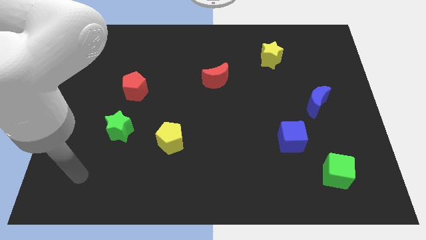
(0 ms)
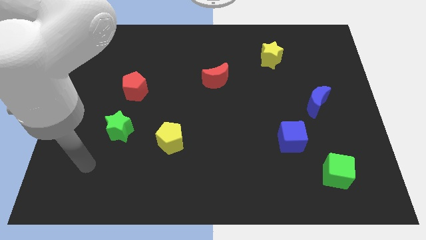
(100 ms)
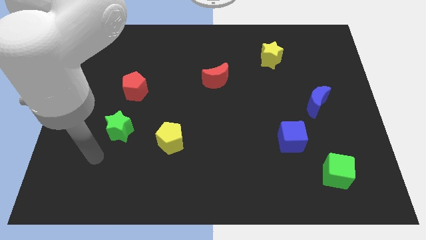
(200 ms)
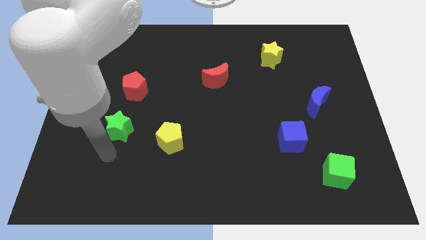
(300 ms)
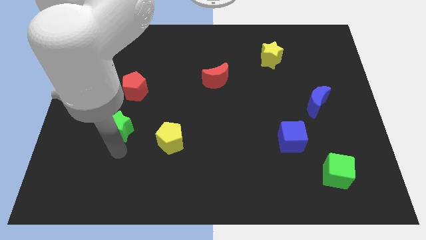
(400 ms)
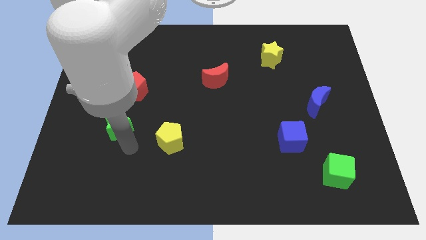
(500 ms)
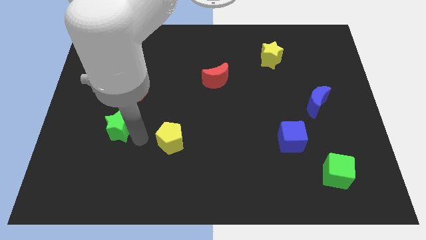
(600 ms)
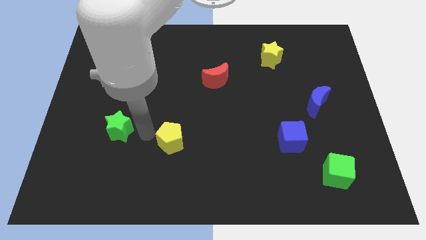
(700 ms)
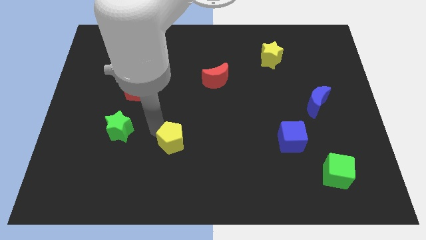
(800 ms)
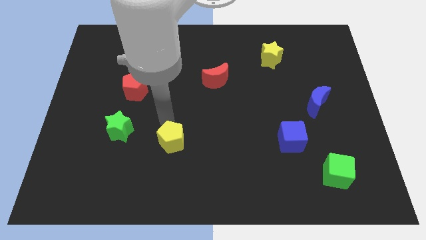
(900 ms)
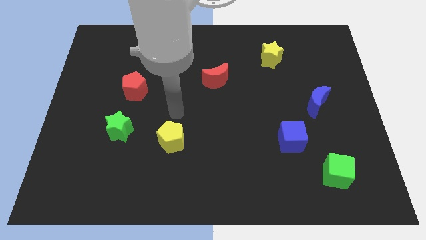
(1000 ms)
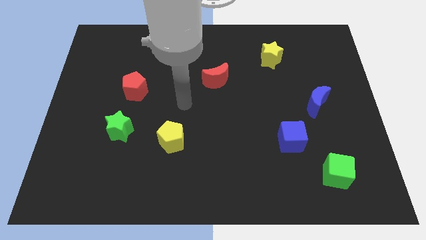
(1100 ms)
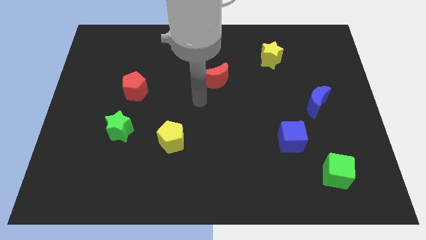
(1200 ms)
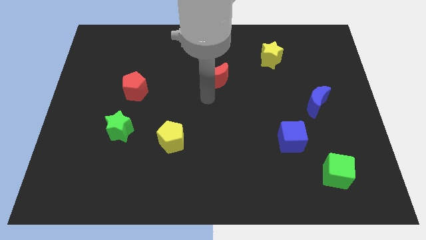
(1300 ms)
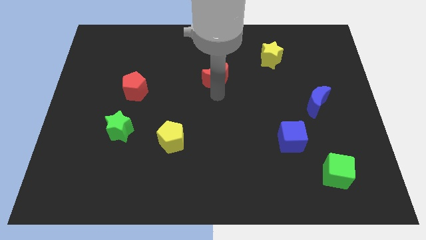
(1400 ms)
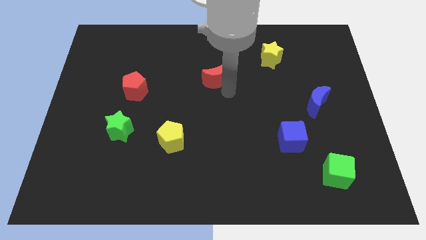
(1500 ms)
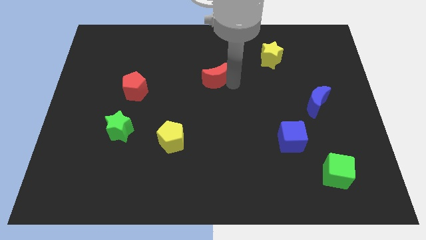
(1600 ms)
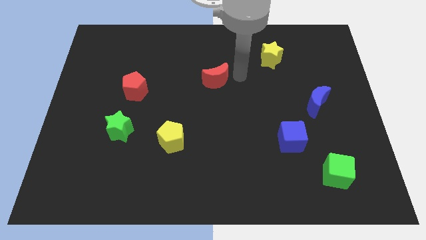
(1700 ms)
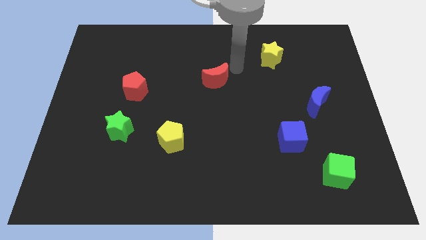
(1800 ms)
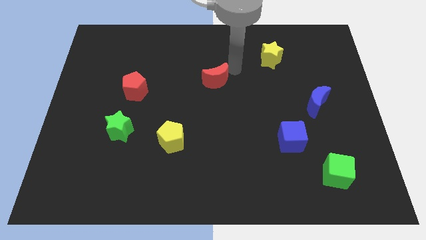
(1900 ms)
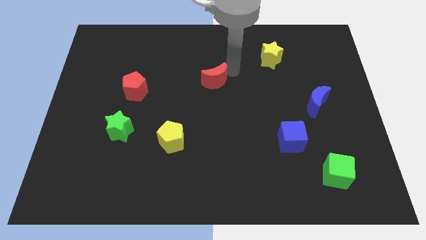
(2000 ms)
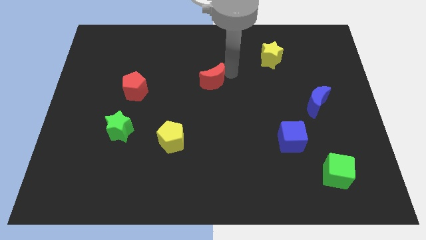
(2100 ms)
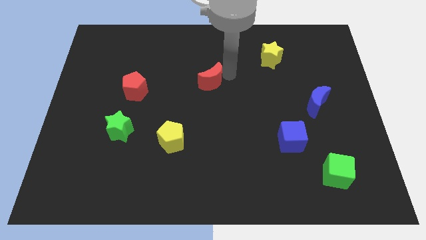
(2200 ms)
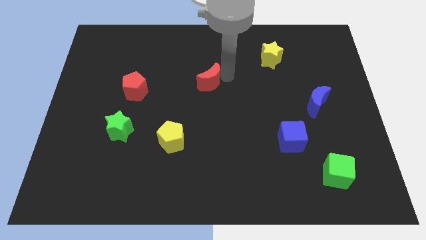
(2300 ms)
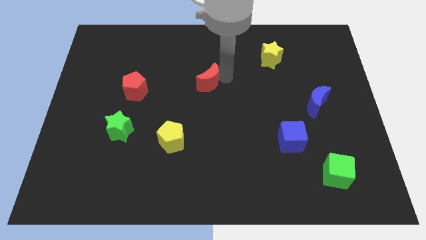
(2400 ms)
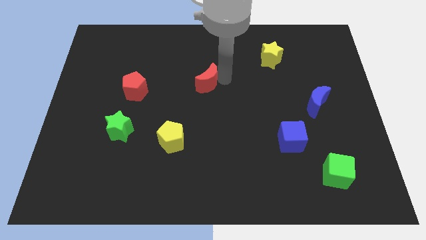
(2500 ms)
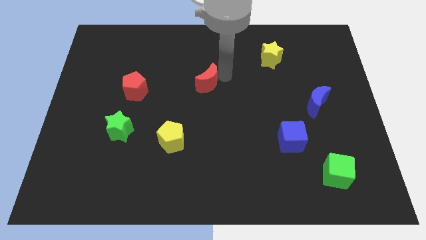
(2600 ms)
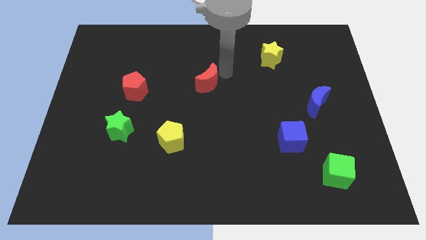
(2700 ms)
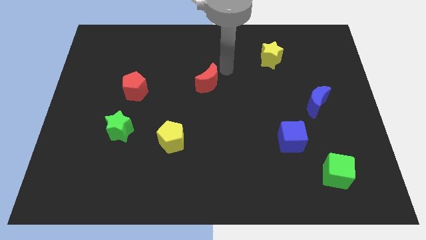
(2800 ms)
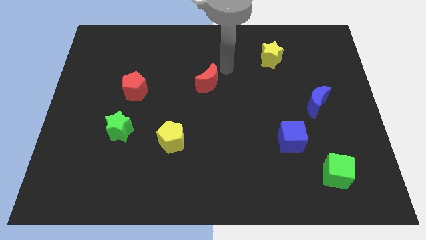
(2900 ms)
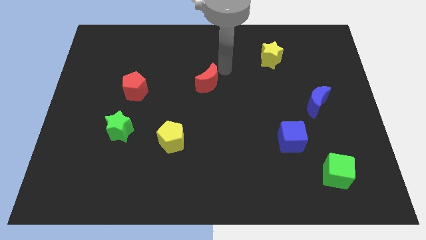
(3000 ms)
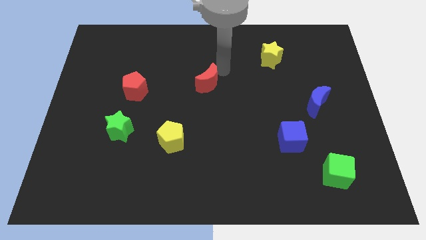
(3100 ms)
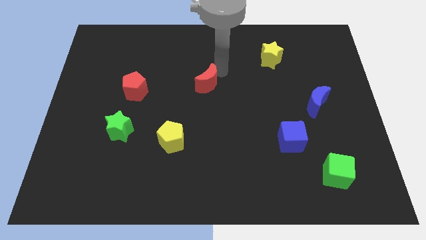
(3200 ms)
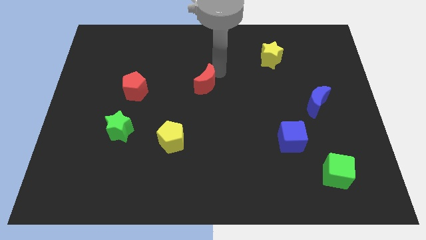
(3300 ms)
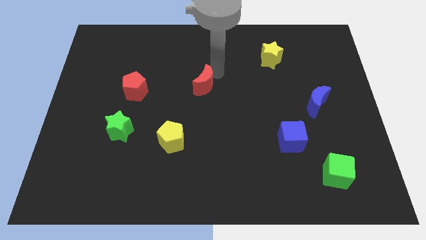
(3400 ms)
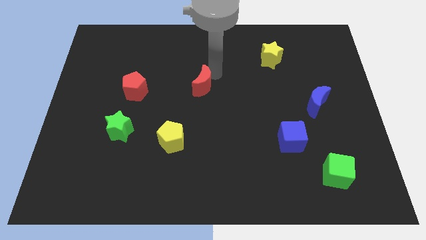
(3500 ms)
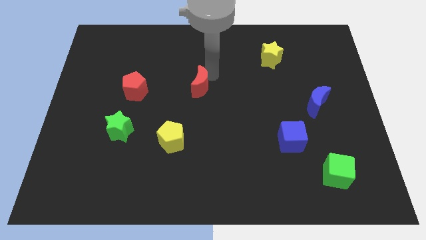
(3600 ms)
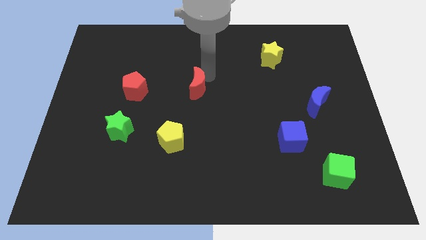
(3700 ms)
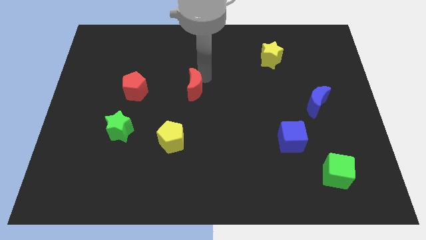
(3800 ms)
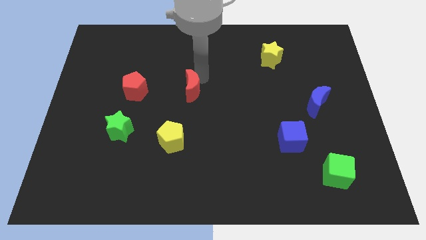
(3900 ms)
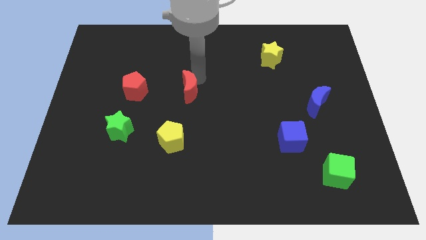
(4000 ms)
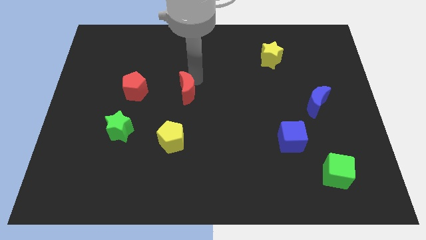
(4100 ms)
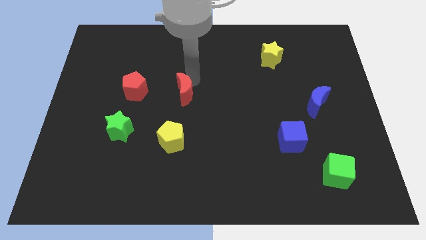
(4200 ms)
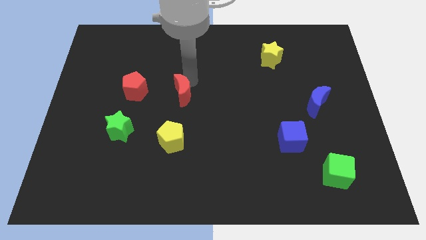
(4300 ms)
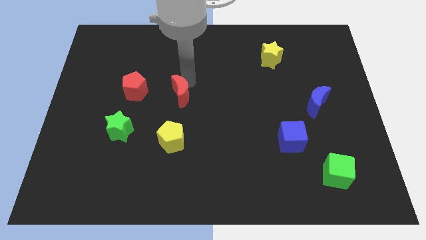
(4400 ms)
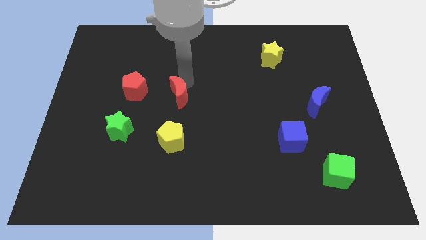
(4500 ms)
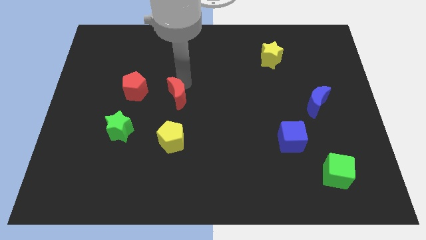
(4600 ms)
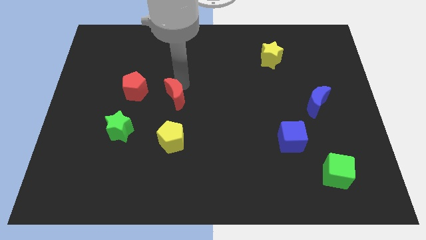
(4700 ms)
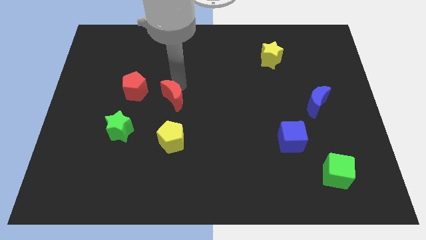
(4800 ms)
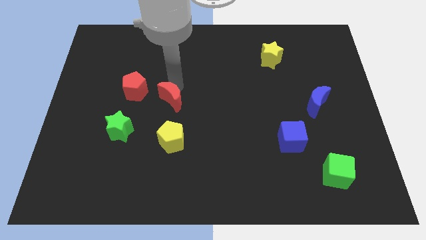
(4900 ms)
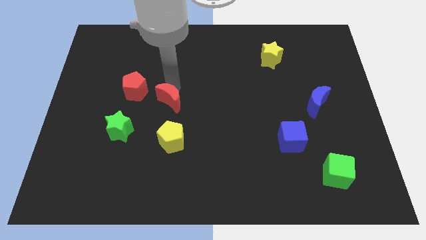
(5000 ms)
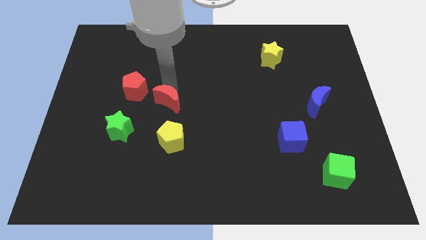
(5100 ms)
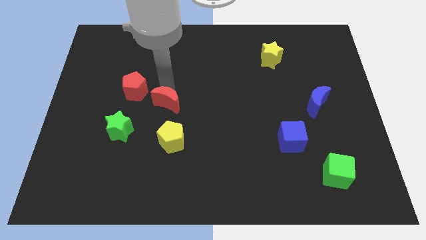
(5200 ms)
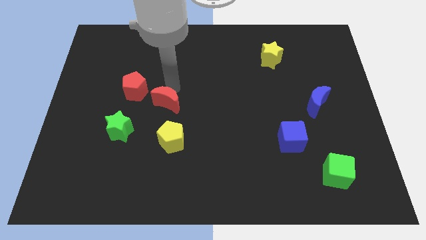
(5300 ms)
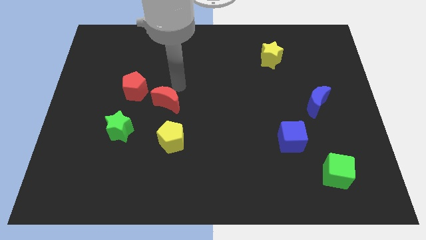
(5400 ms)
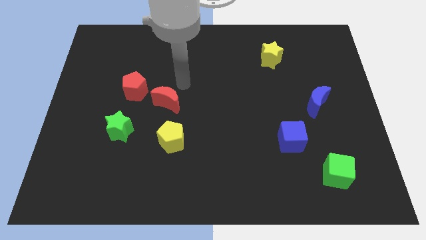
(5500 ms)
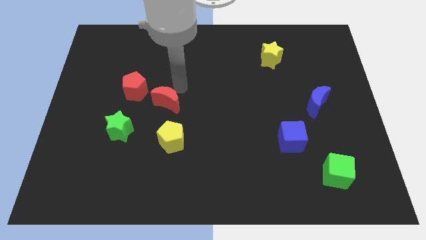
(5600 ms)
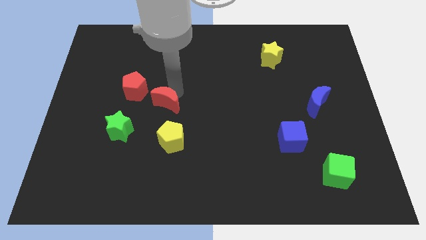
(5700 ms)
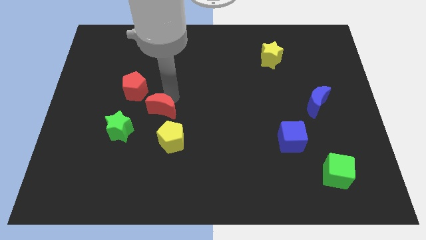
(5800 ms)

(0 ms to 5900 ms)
push the red moon diagonally up and to the left of the yellow pentagon

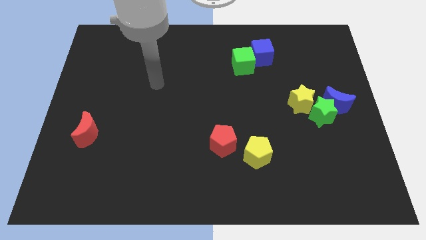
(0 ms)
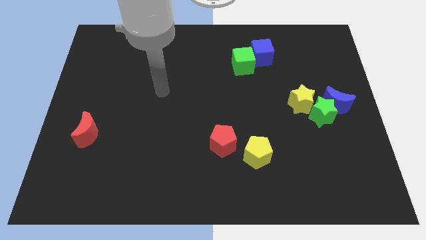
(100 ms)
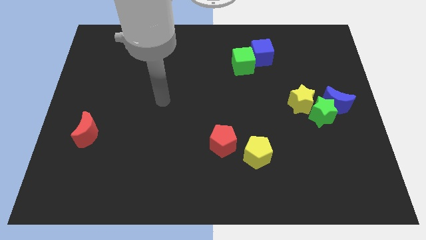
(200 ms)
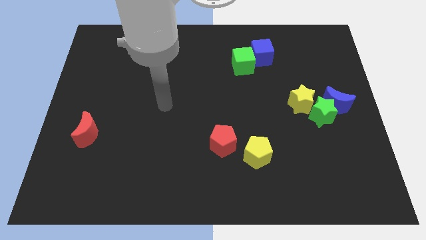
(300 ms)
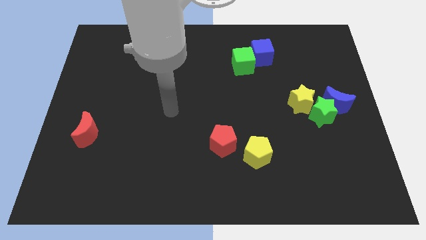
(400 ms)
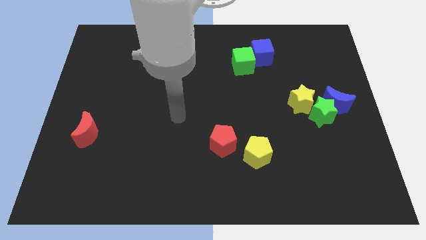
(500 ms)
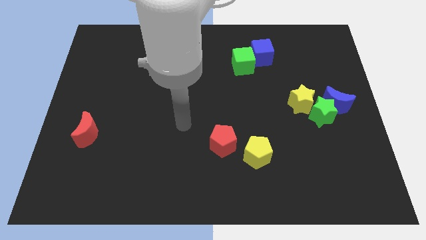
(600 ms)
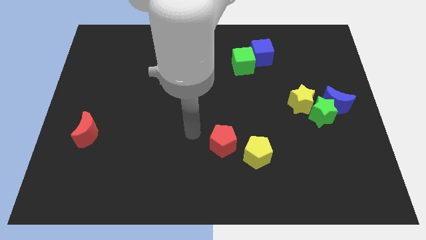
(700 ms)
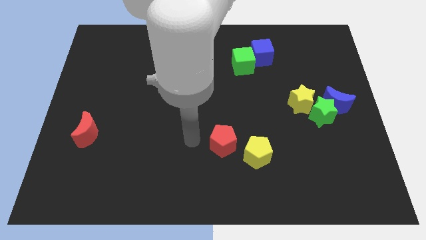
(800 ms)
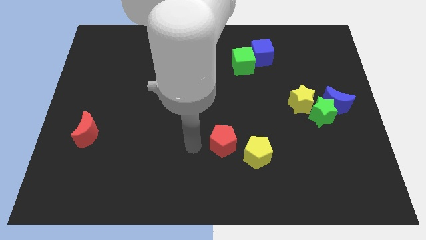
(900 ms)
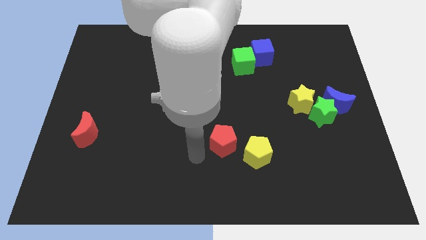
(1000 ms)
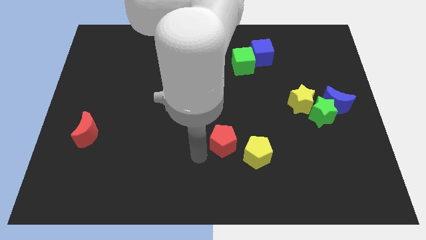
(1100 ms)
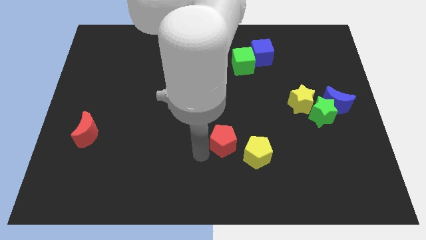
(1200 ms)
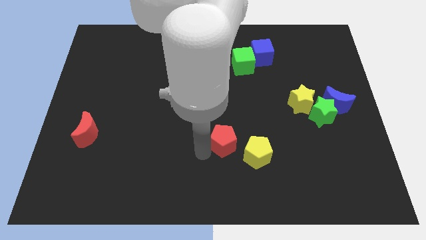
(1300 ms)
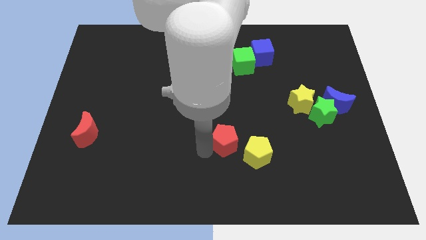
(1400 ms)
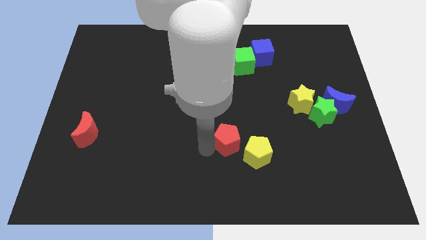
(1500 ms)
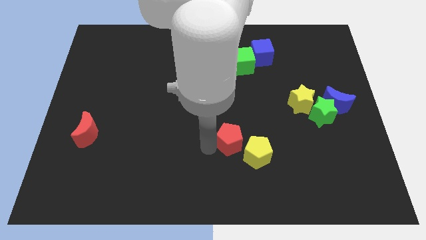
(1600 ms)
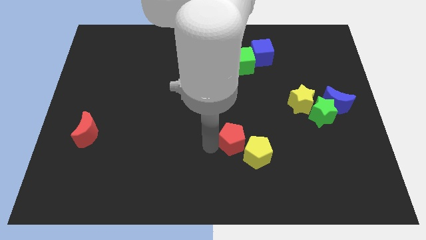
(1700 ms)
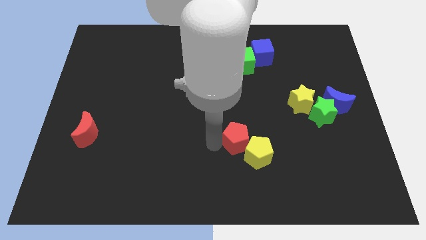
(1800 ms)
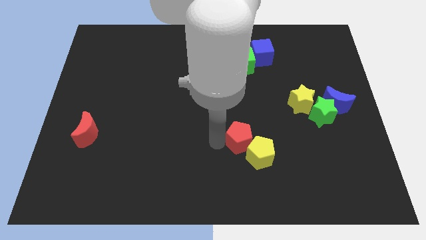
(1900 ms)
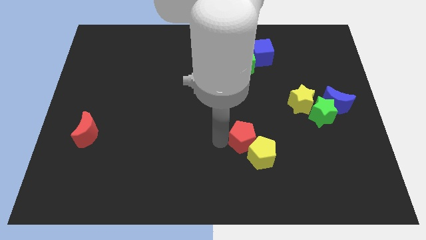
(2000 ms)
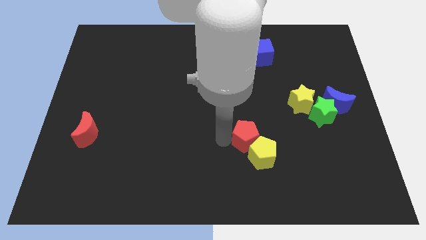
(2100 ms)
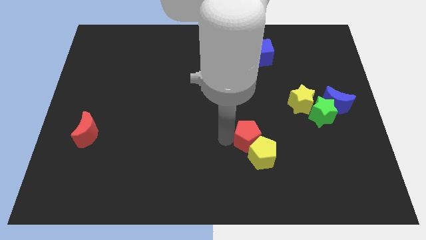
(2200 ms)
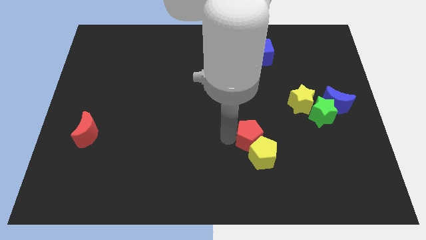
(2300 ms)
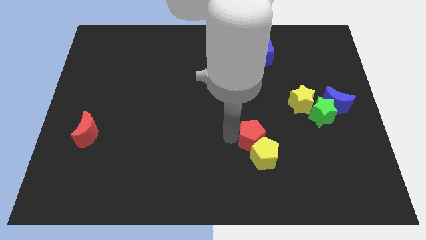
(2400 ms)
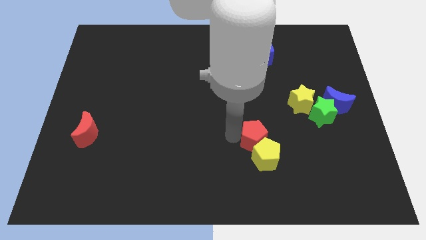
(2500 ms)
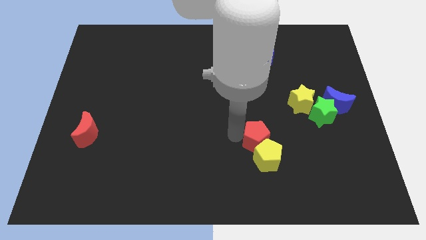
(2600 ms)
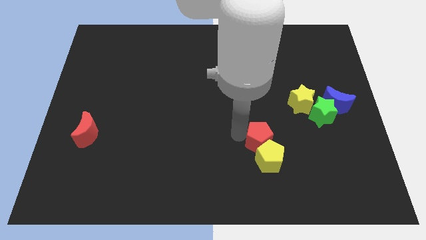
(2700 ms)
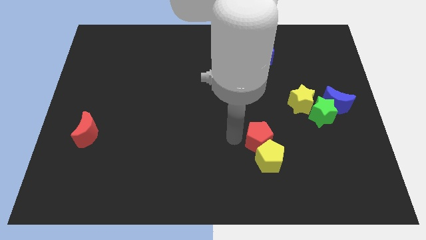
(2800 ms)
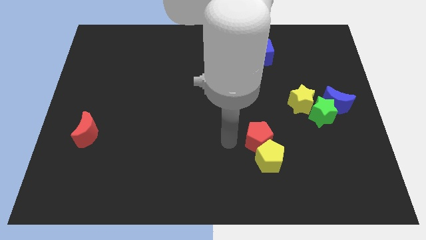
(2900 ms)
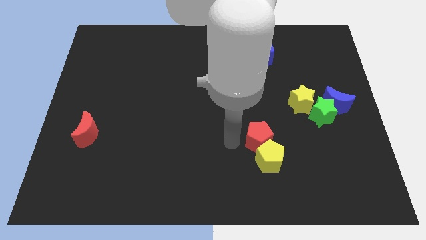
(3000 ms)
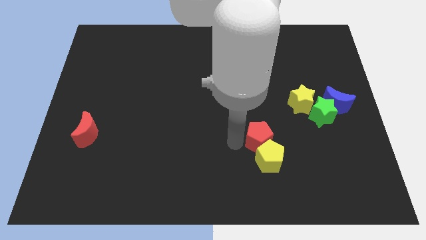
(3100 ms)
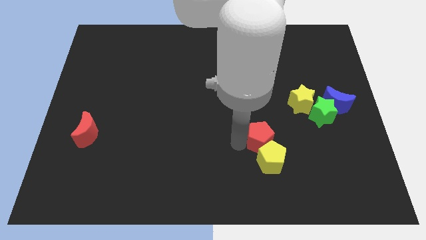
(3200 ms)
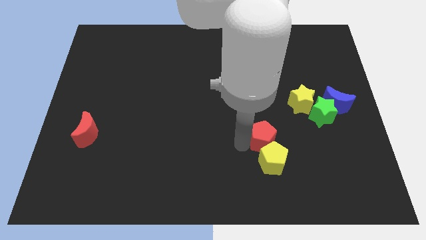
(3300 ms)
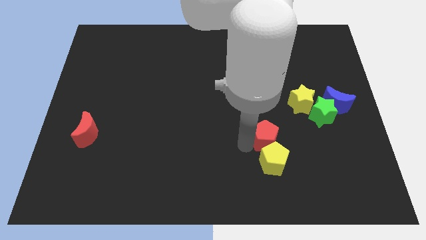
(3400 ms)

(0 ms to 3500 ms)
put the red pentagon to the top right of the yellow pentagon
